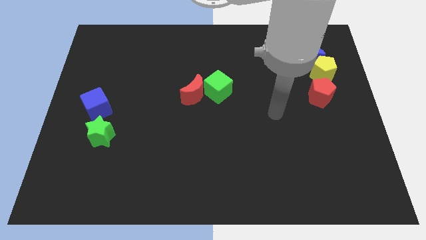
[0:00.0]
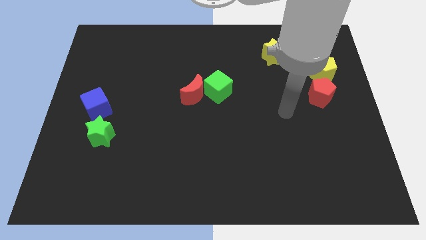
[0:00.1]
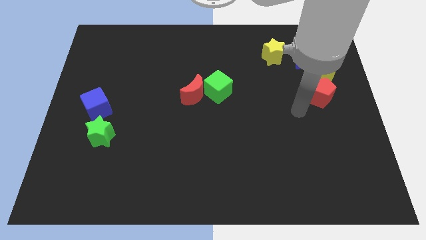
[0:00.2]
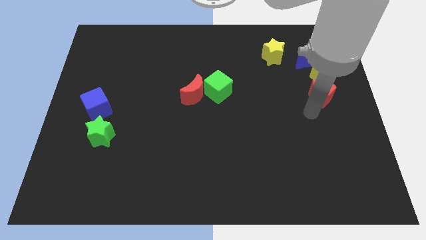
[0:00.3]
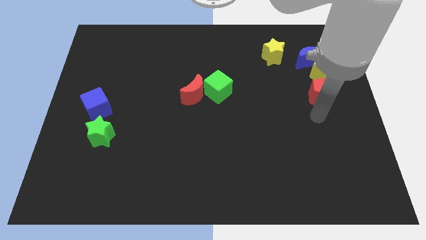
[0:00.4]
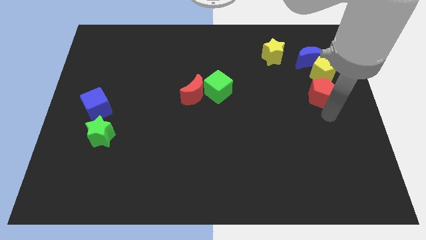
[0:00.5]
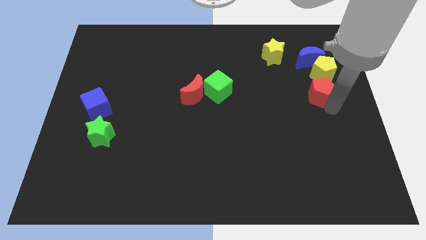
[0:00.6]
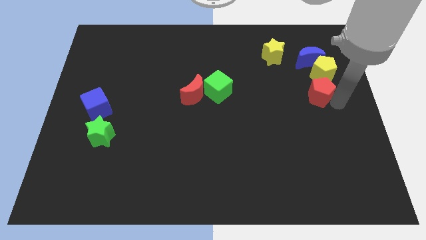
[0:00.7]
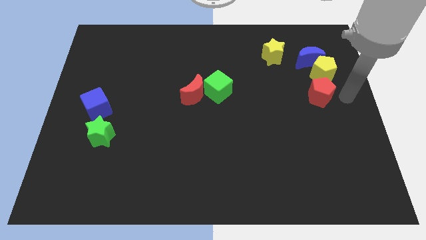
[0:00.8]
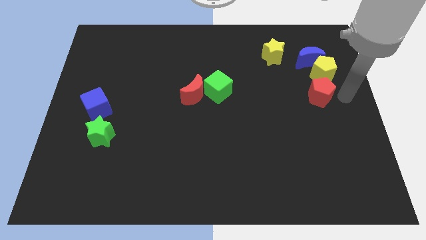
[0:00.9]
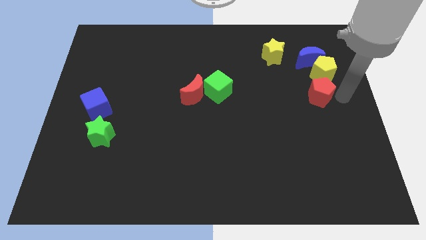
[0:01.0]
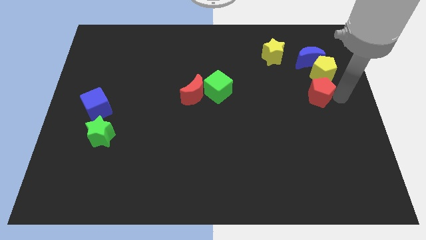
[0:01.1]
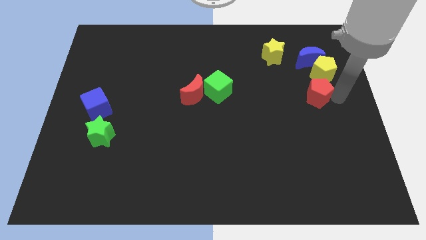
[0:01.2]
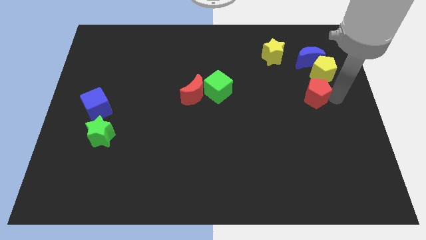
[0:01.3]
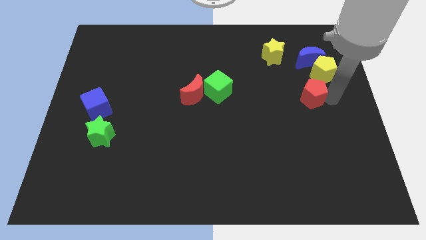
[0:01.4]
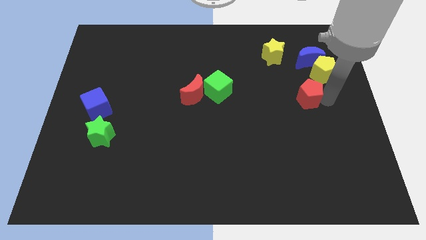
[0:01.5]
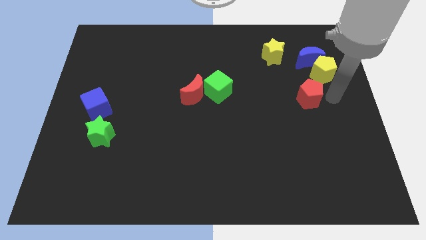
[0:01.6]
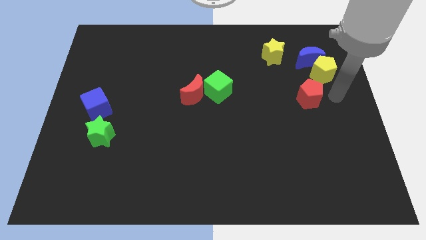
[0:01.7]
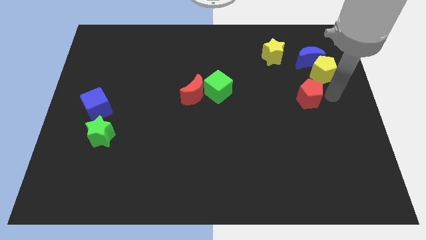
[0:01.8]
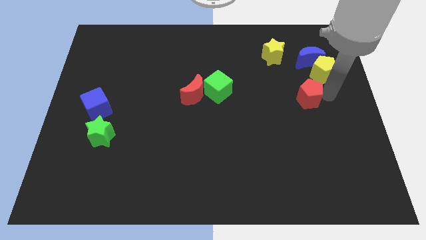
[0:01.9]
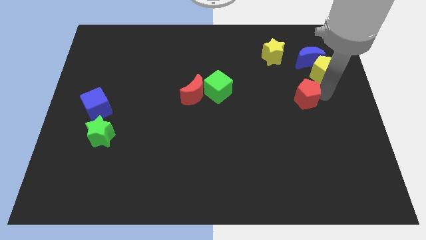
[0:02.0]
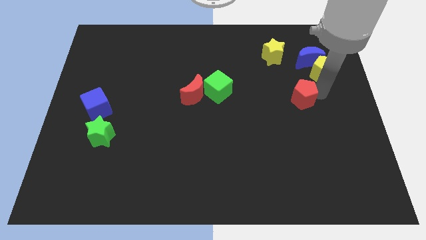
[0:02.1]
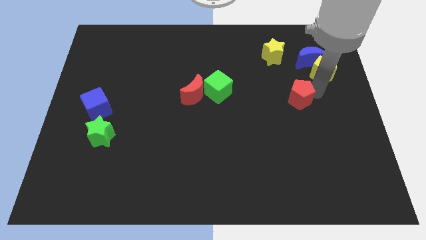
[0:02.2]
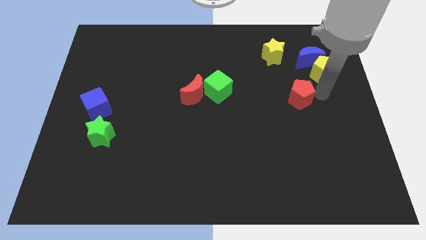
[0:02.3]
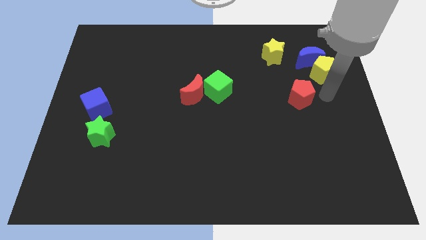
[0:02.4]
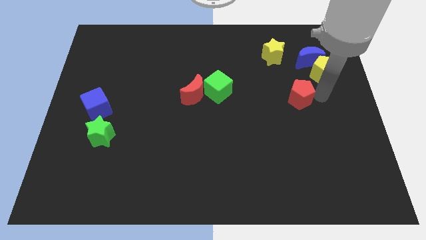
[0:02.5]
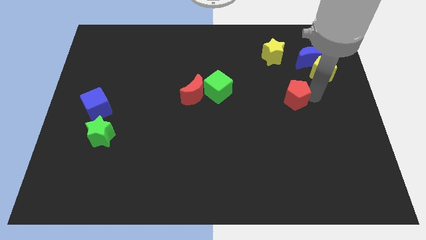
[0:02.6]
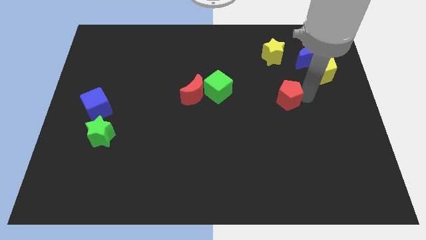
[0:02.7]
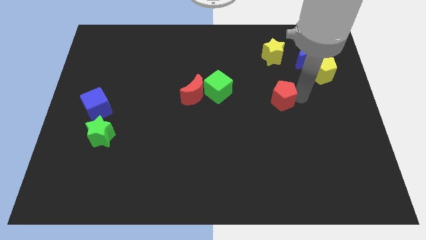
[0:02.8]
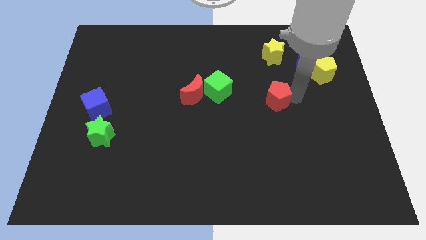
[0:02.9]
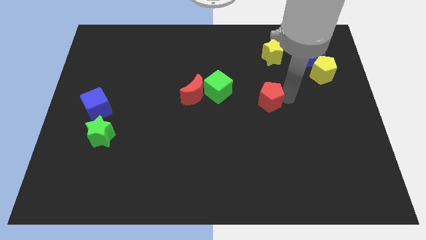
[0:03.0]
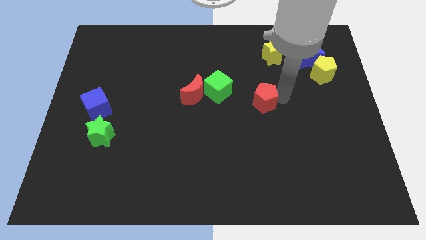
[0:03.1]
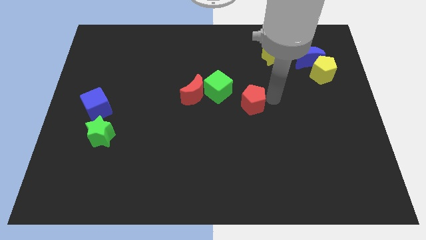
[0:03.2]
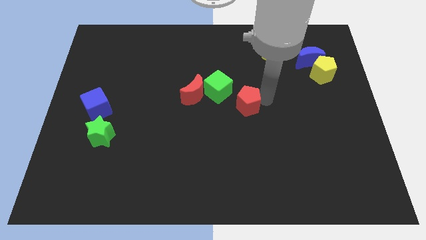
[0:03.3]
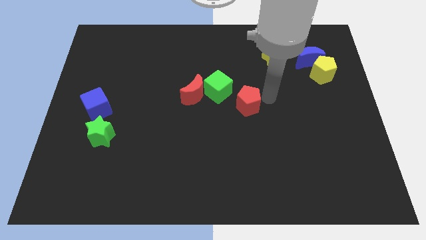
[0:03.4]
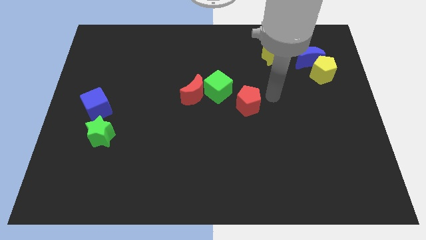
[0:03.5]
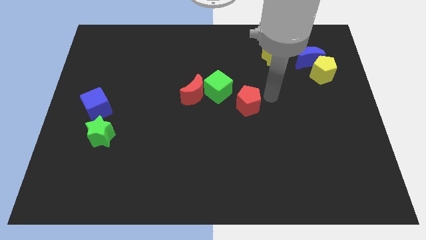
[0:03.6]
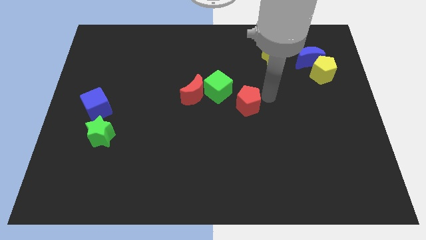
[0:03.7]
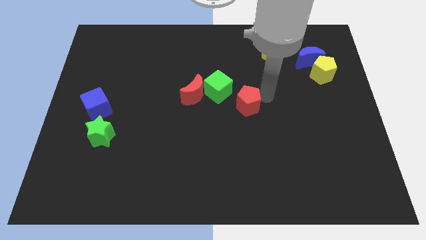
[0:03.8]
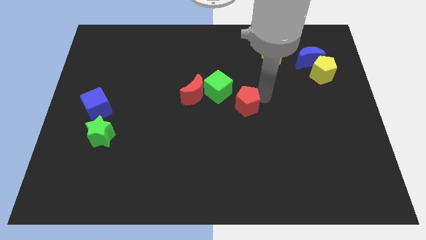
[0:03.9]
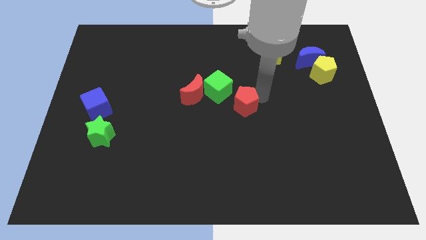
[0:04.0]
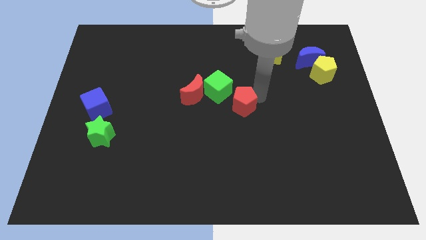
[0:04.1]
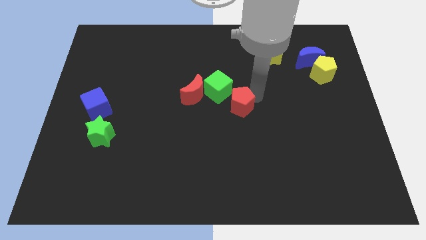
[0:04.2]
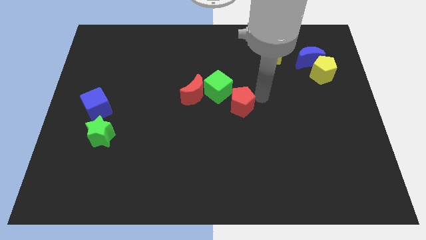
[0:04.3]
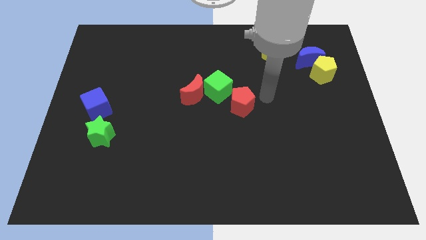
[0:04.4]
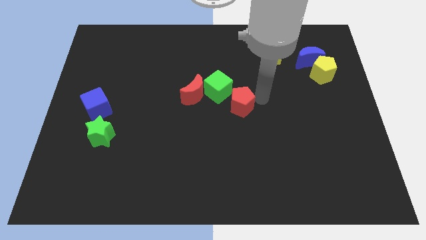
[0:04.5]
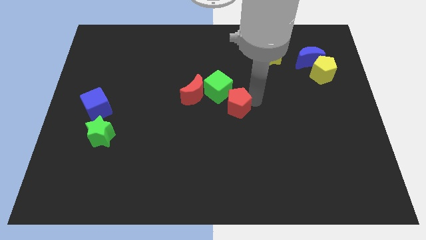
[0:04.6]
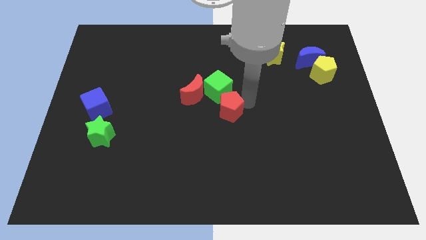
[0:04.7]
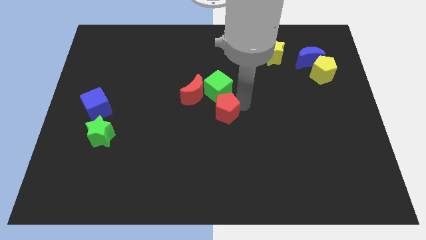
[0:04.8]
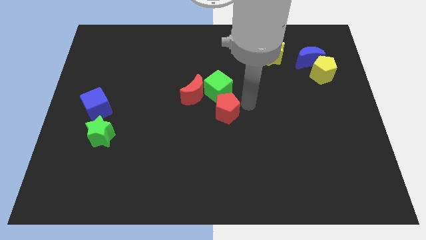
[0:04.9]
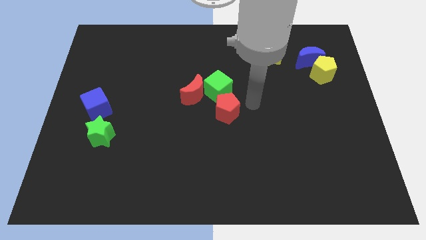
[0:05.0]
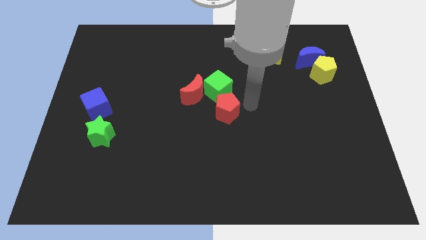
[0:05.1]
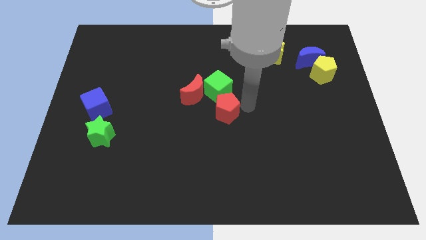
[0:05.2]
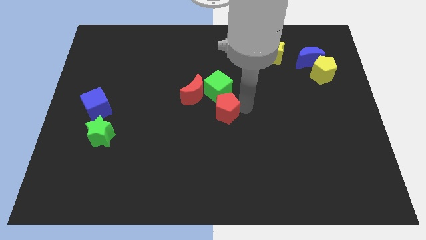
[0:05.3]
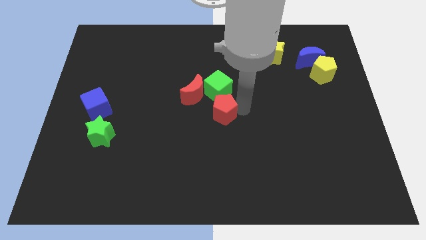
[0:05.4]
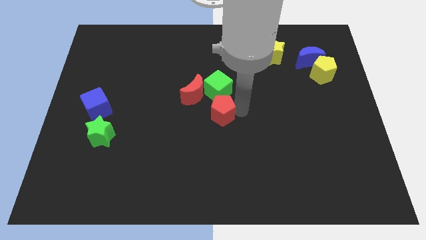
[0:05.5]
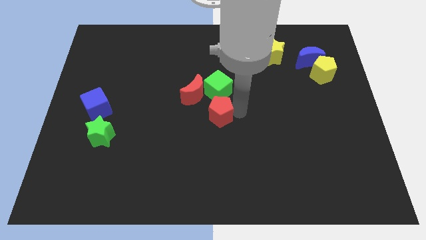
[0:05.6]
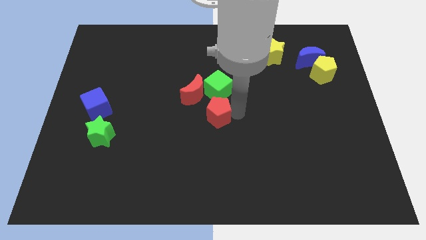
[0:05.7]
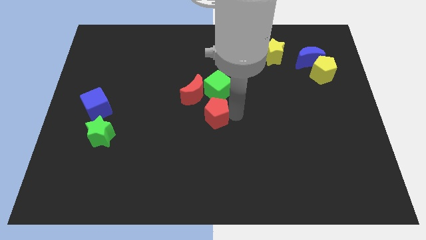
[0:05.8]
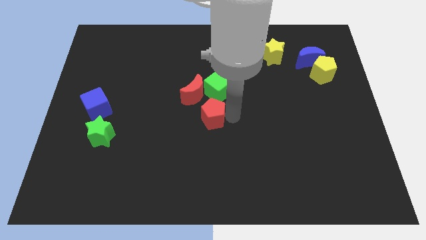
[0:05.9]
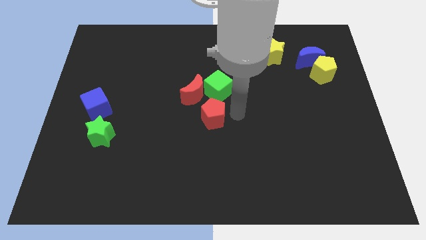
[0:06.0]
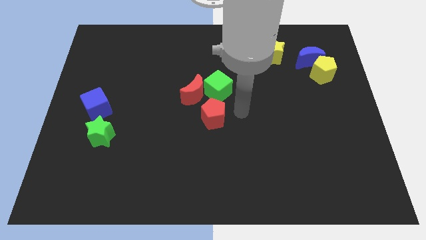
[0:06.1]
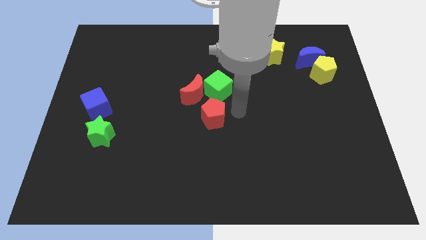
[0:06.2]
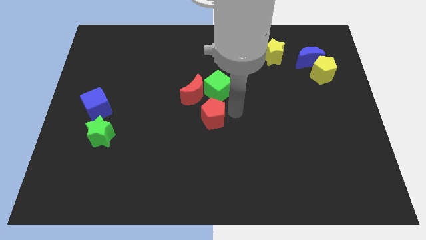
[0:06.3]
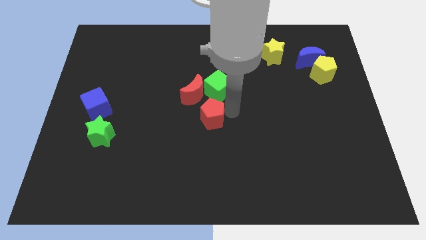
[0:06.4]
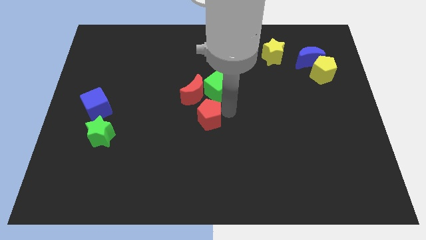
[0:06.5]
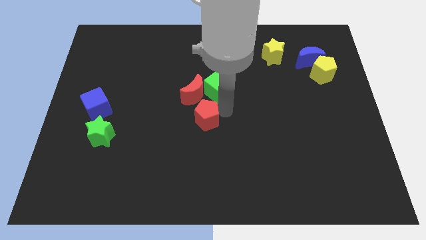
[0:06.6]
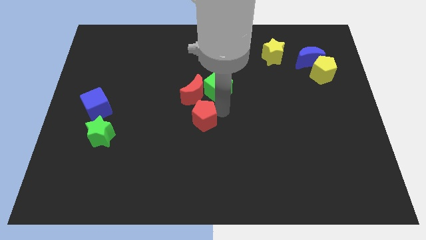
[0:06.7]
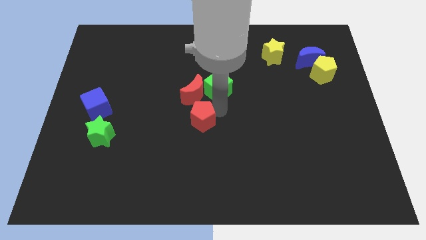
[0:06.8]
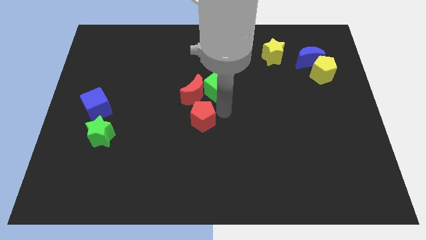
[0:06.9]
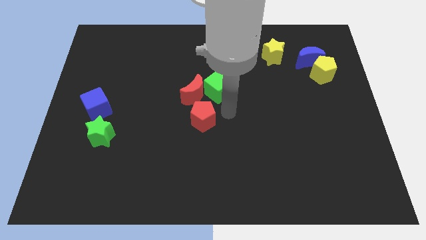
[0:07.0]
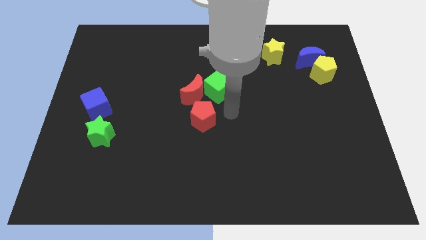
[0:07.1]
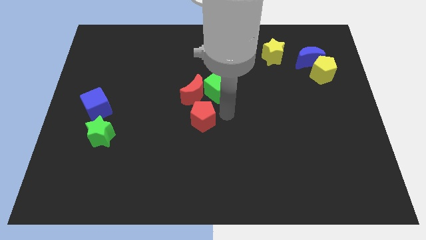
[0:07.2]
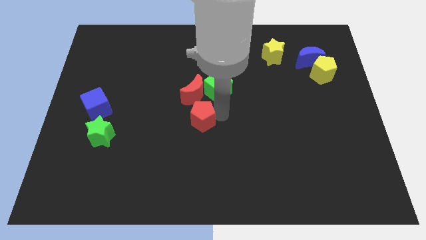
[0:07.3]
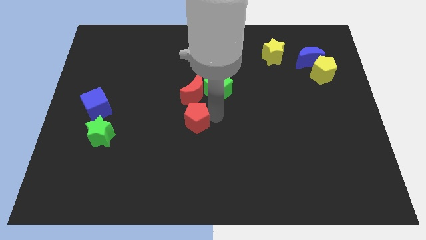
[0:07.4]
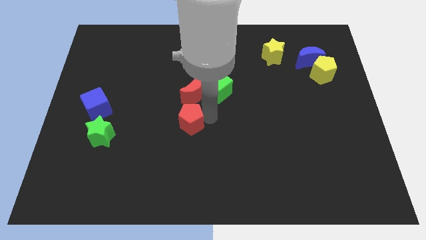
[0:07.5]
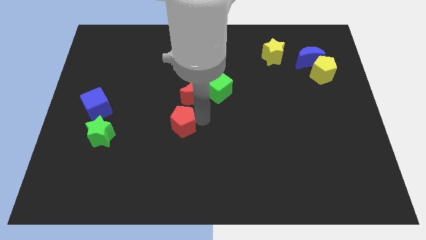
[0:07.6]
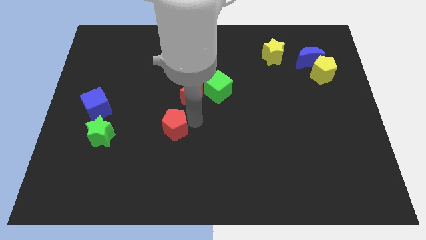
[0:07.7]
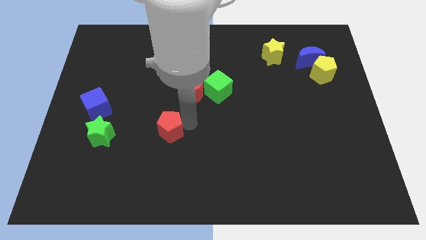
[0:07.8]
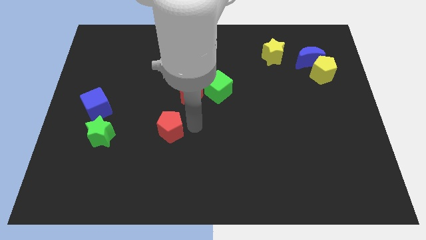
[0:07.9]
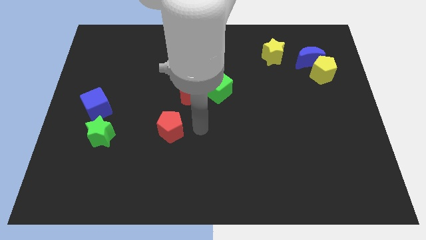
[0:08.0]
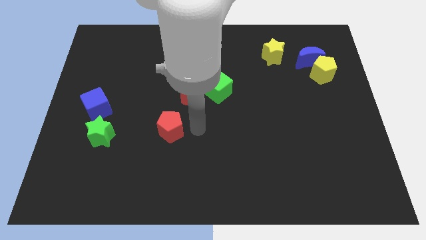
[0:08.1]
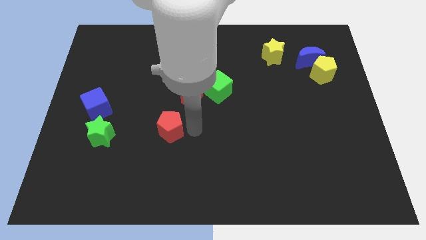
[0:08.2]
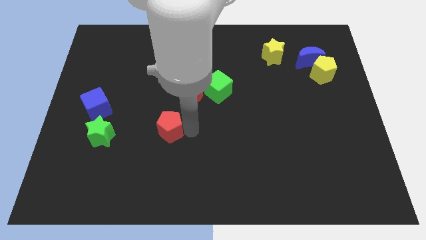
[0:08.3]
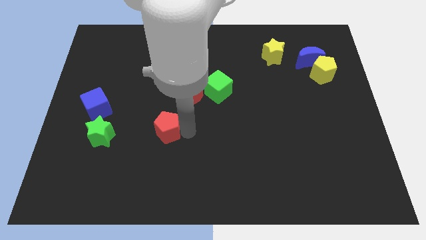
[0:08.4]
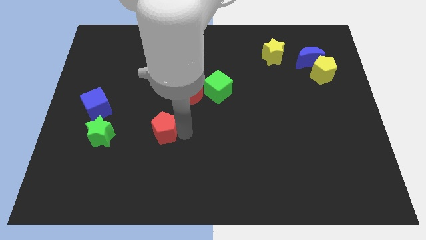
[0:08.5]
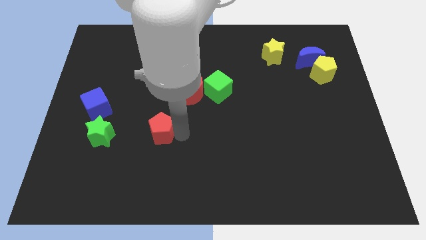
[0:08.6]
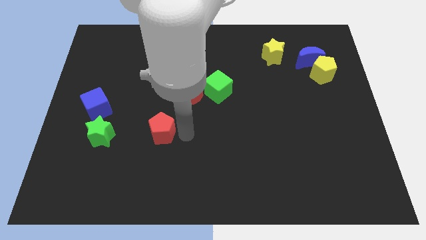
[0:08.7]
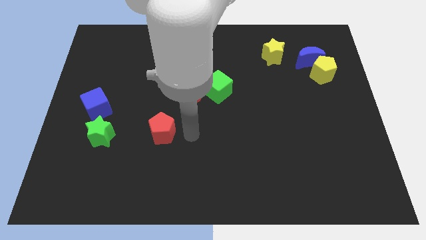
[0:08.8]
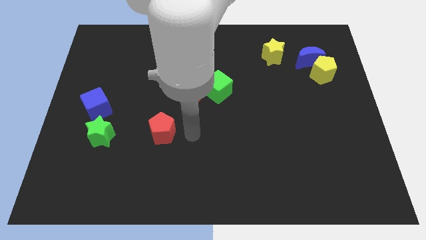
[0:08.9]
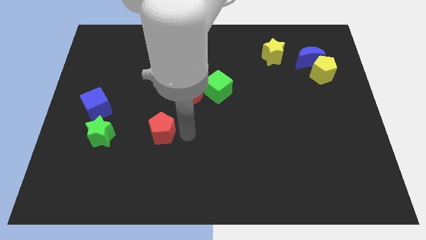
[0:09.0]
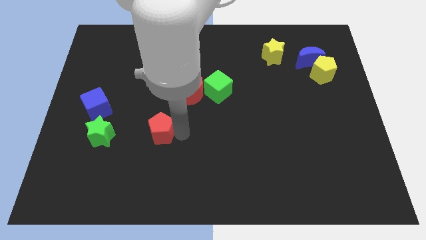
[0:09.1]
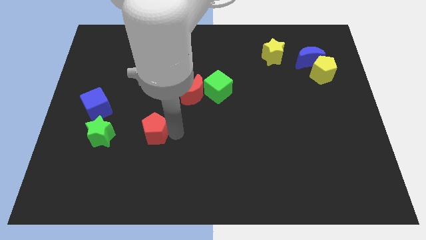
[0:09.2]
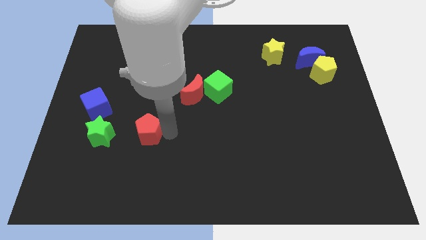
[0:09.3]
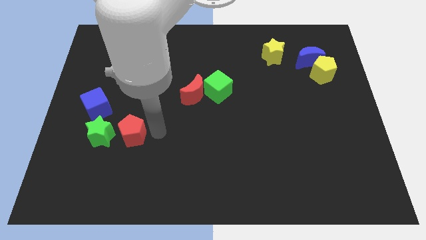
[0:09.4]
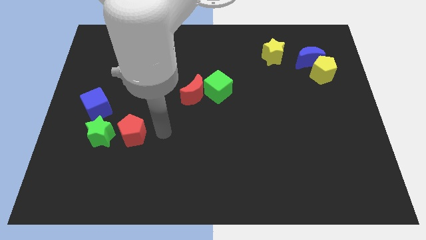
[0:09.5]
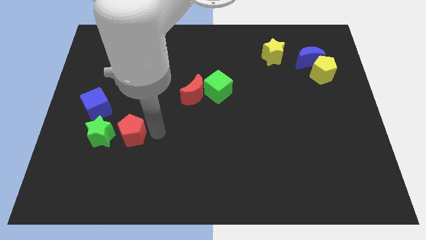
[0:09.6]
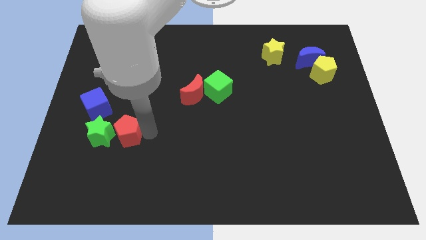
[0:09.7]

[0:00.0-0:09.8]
push the red pentagon next to the green star
